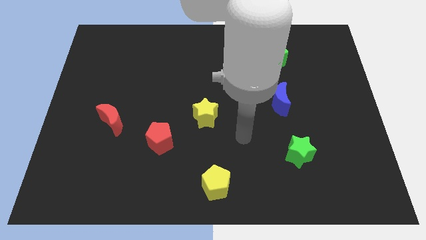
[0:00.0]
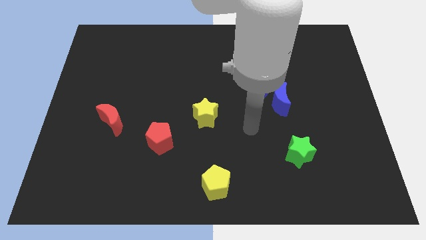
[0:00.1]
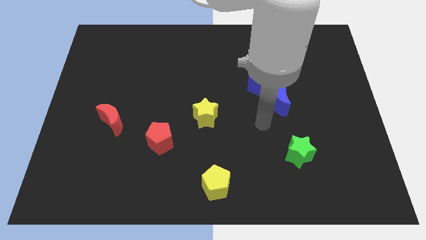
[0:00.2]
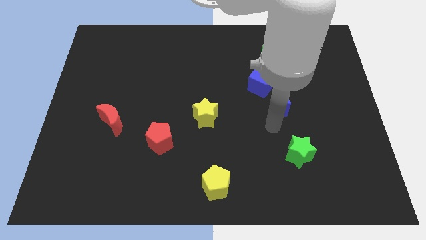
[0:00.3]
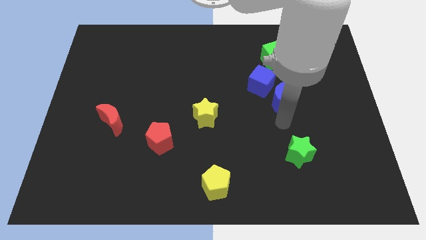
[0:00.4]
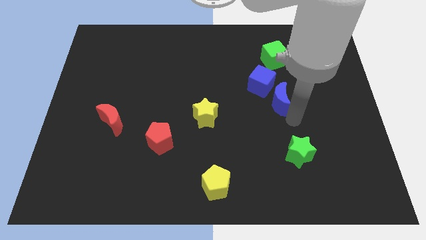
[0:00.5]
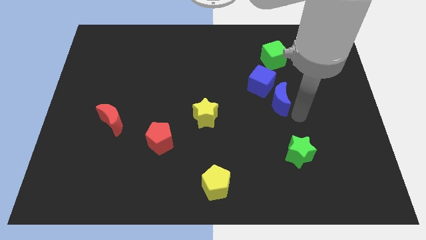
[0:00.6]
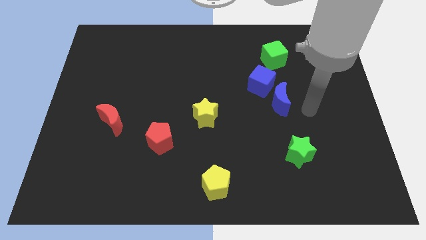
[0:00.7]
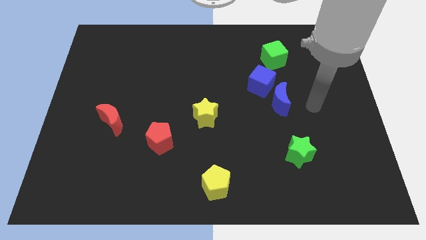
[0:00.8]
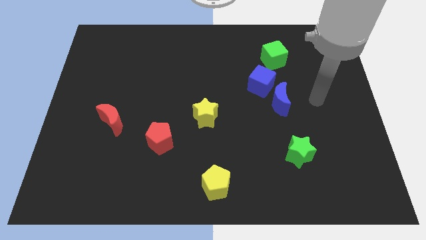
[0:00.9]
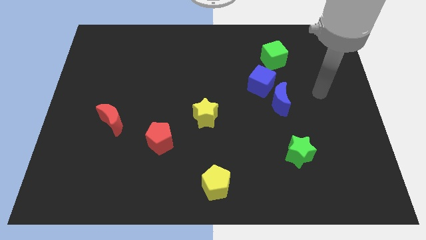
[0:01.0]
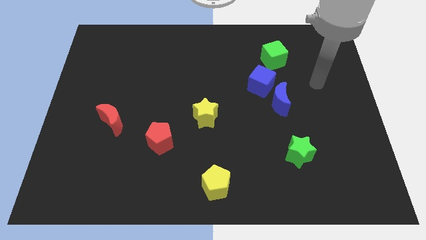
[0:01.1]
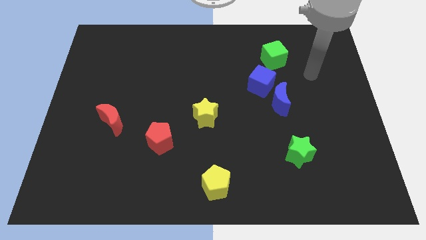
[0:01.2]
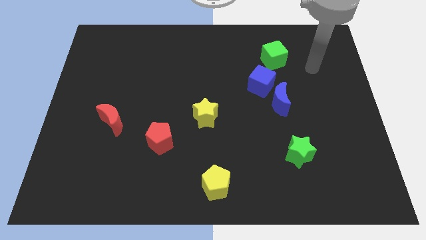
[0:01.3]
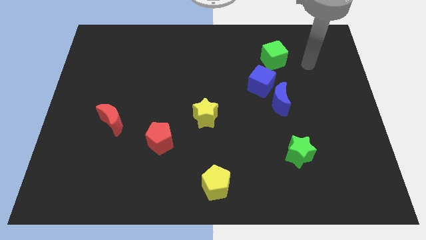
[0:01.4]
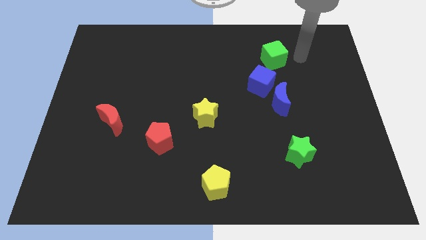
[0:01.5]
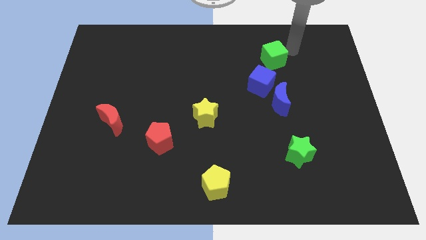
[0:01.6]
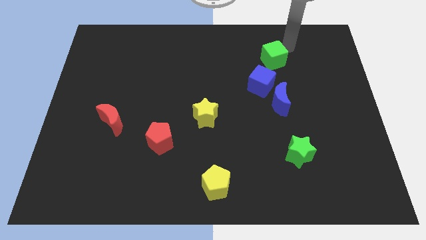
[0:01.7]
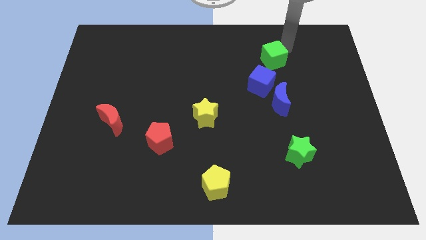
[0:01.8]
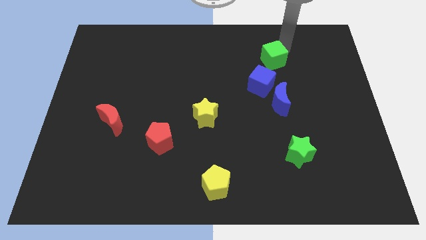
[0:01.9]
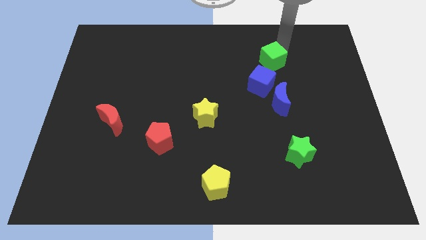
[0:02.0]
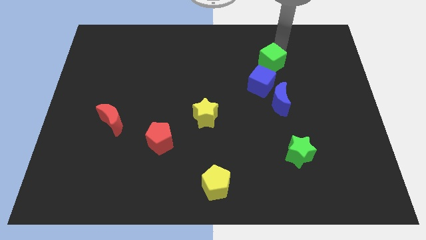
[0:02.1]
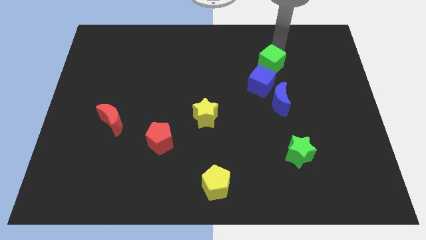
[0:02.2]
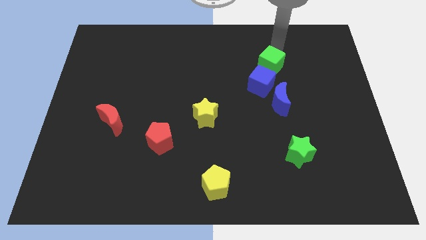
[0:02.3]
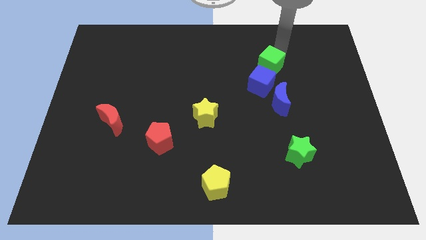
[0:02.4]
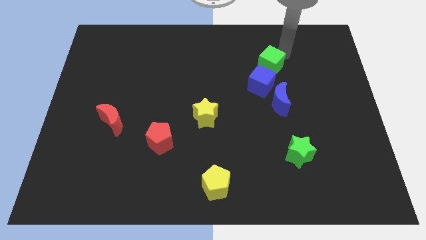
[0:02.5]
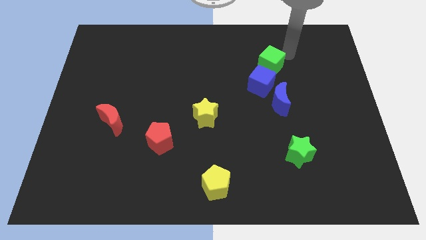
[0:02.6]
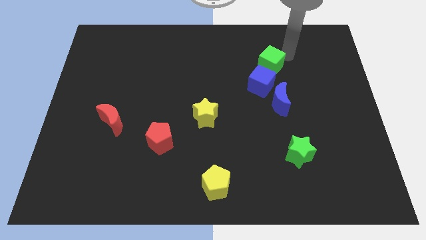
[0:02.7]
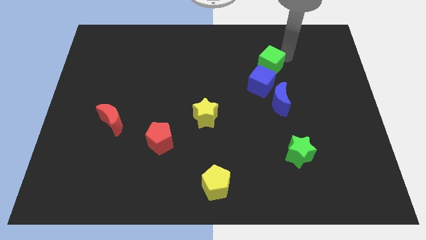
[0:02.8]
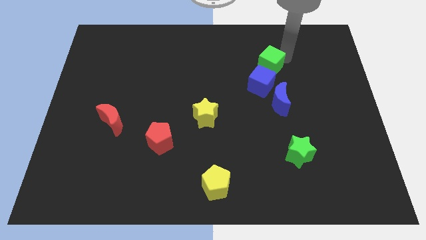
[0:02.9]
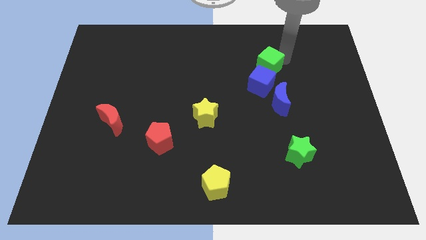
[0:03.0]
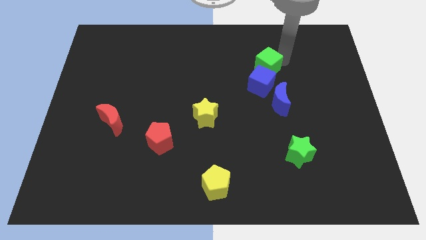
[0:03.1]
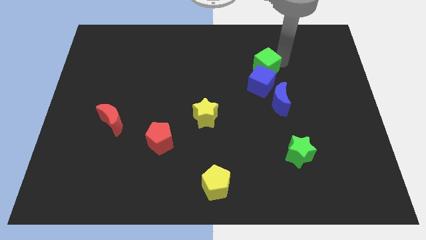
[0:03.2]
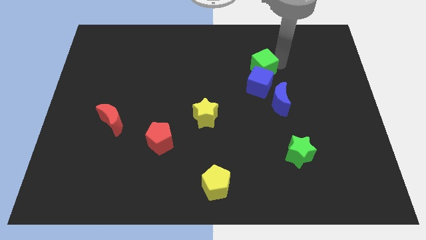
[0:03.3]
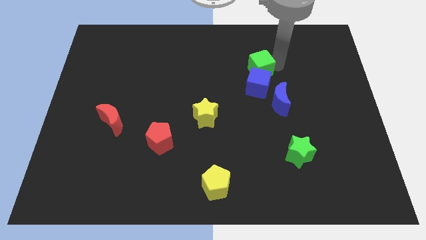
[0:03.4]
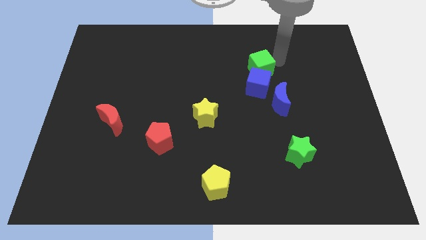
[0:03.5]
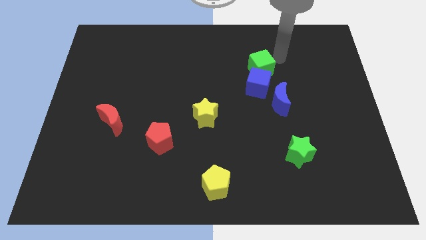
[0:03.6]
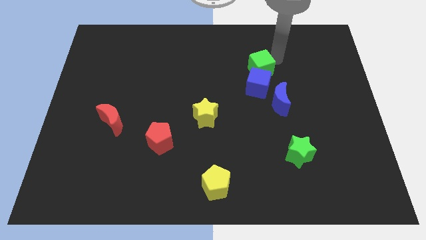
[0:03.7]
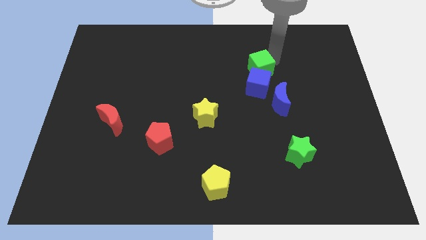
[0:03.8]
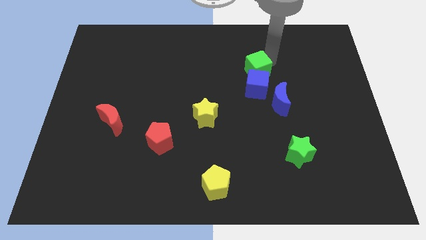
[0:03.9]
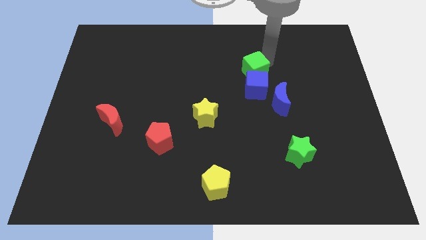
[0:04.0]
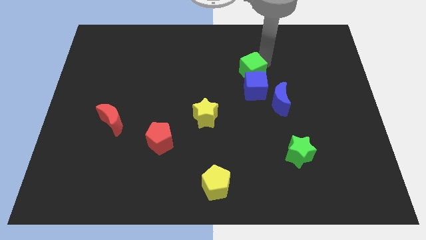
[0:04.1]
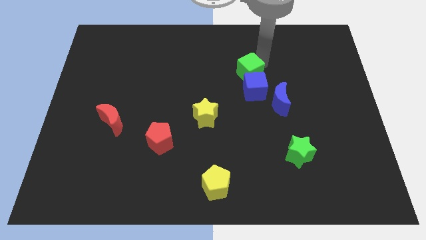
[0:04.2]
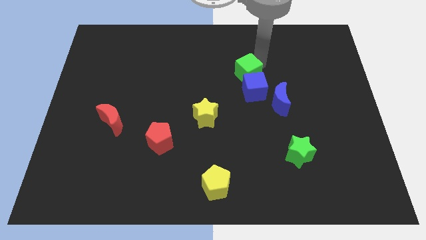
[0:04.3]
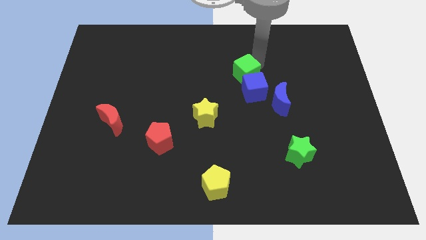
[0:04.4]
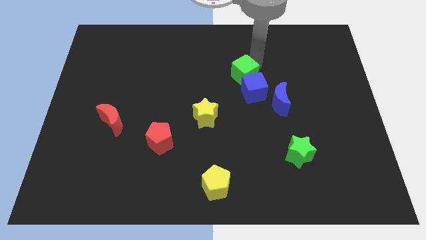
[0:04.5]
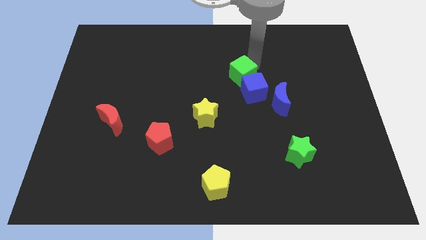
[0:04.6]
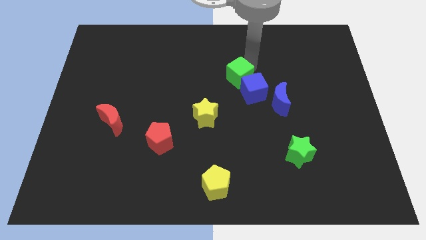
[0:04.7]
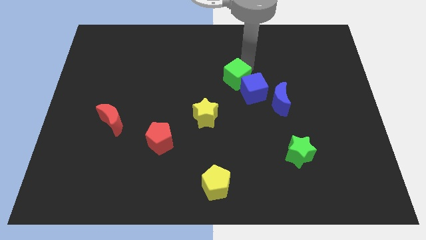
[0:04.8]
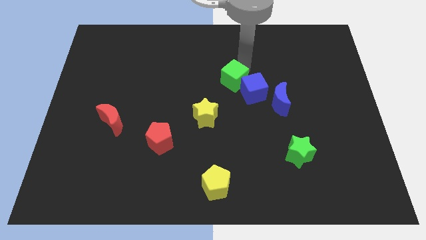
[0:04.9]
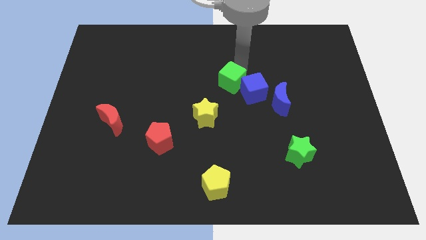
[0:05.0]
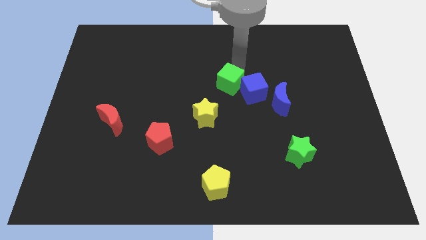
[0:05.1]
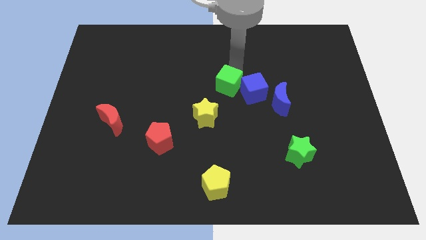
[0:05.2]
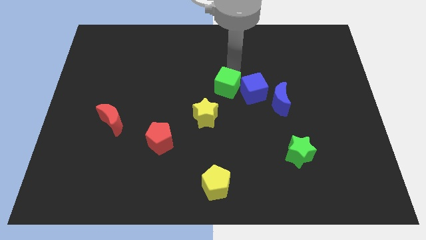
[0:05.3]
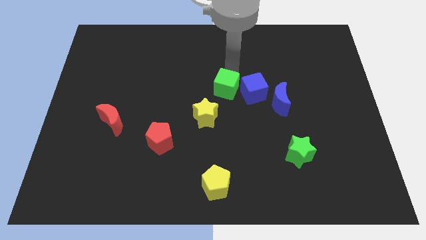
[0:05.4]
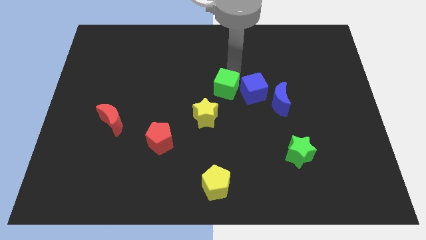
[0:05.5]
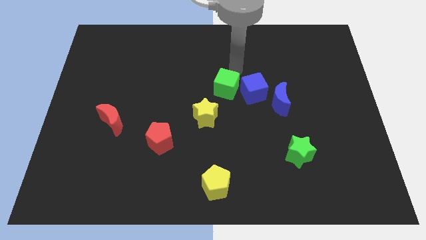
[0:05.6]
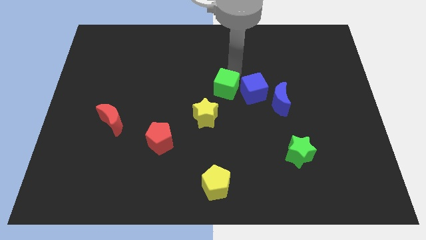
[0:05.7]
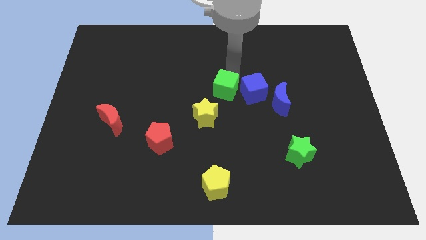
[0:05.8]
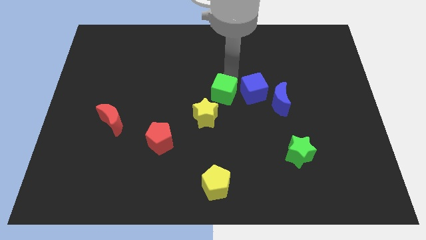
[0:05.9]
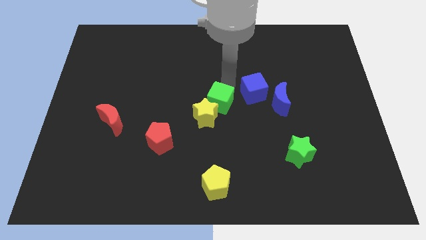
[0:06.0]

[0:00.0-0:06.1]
move the green cube towards the yellow star

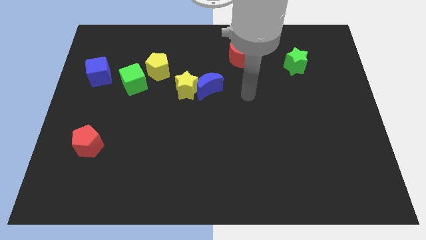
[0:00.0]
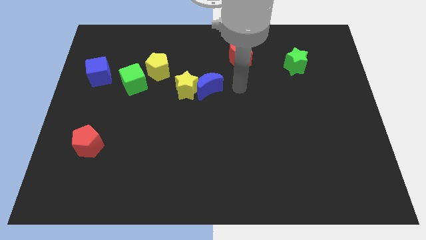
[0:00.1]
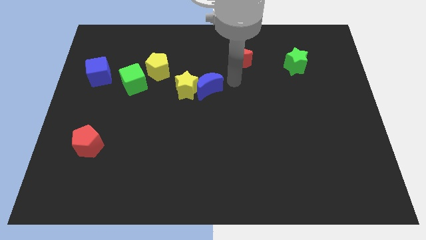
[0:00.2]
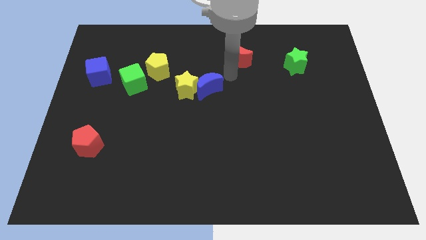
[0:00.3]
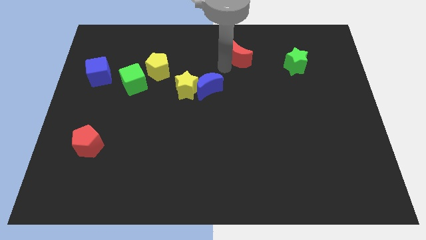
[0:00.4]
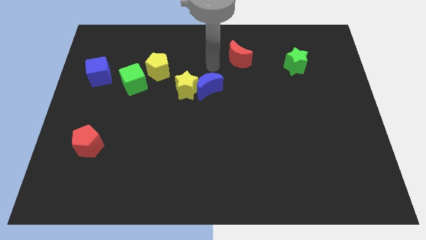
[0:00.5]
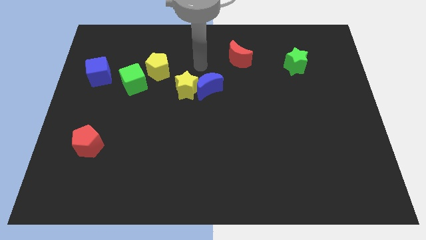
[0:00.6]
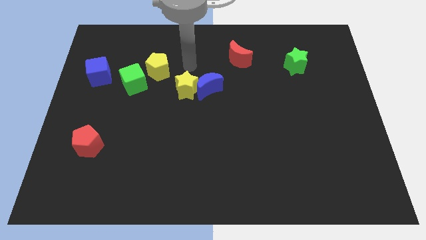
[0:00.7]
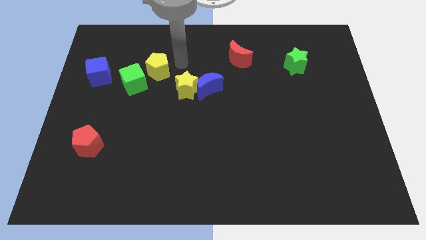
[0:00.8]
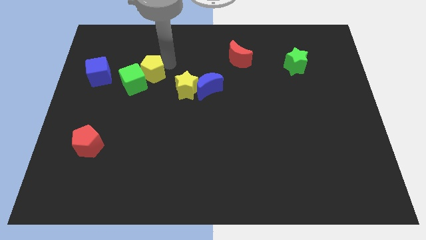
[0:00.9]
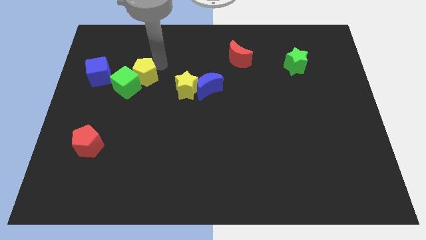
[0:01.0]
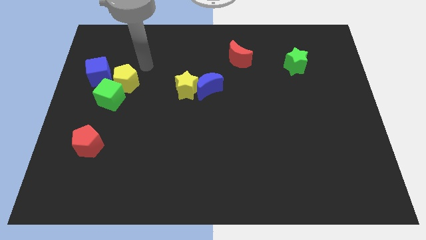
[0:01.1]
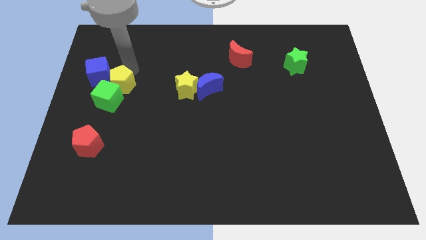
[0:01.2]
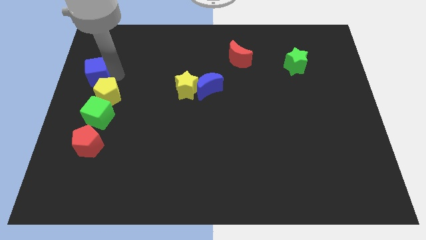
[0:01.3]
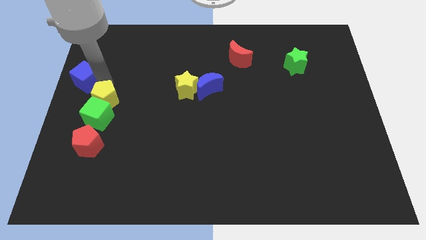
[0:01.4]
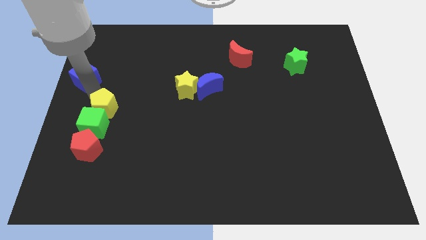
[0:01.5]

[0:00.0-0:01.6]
push the green cube to the red pentagon

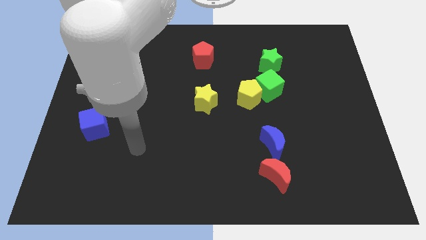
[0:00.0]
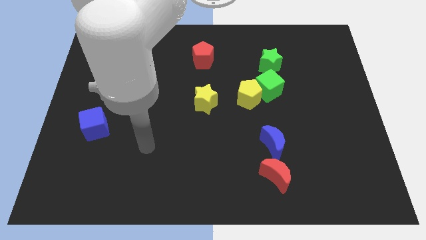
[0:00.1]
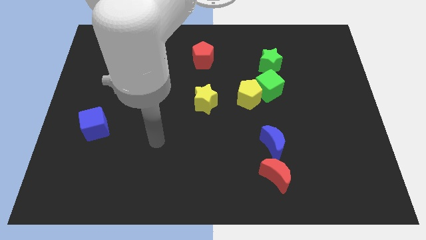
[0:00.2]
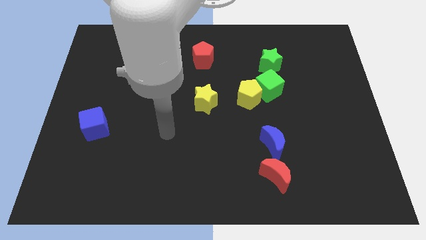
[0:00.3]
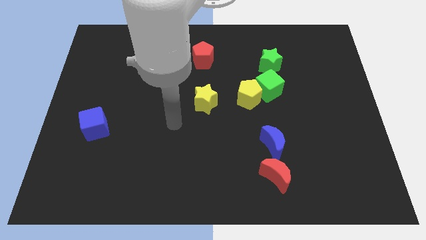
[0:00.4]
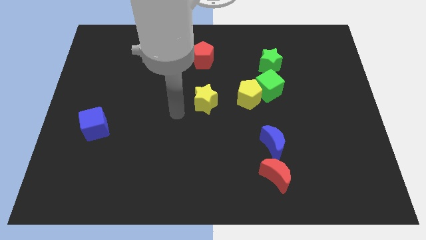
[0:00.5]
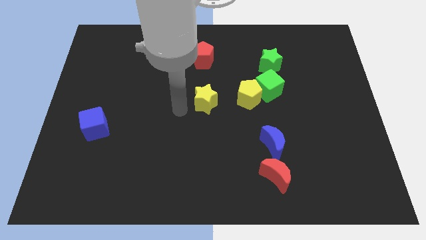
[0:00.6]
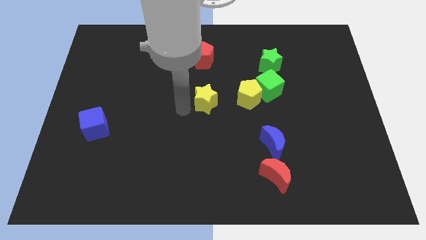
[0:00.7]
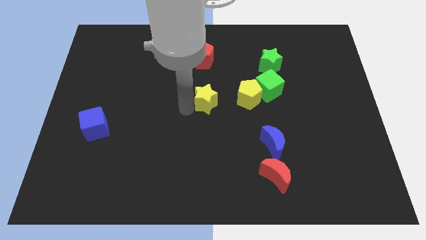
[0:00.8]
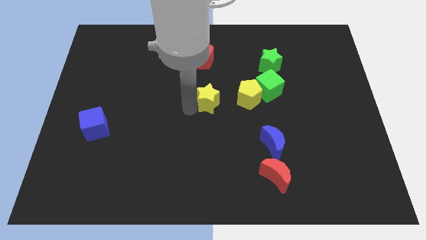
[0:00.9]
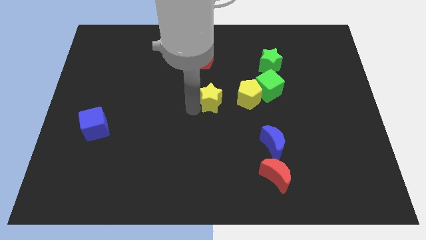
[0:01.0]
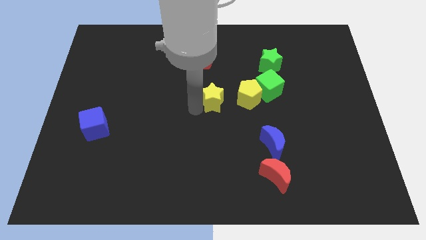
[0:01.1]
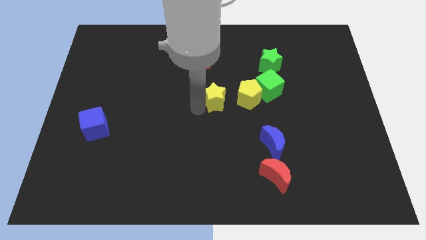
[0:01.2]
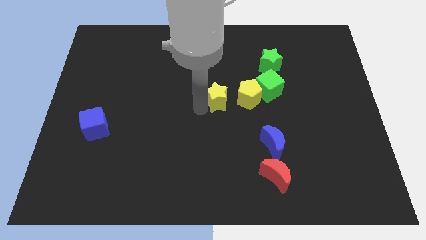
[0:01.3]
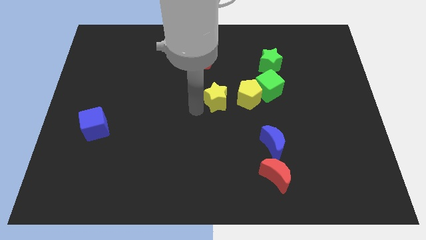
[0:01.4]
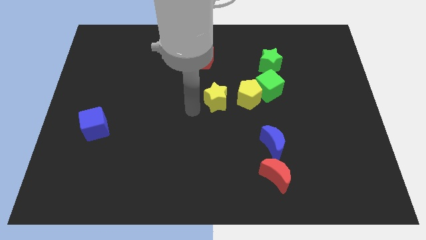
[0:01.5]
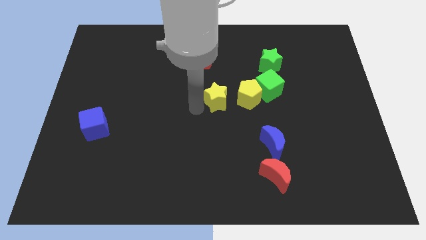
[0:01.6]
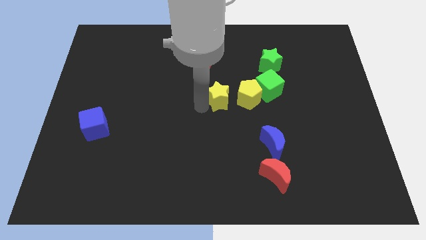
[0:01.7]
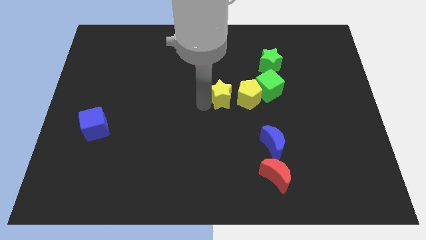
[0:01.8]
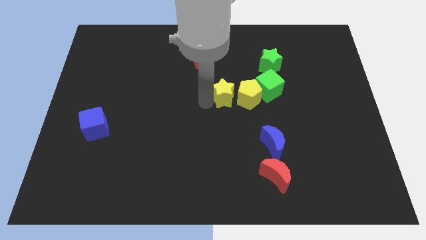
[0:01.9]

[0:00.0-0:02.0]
put the yellow star next to the yellow pentagon
